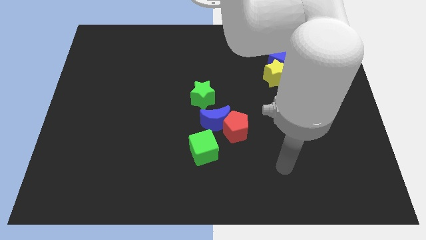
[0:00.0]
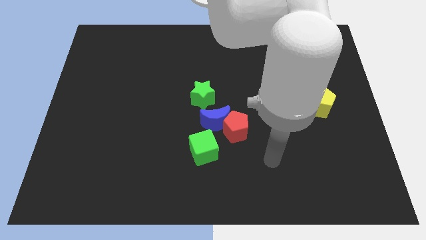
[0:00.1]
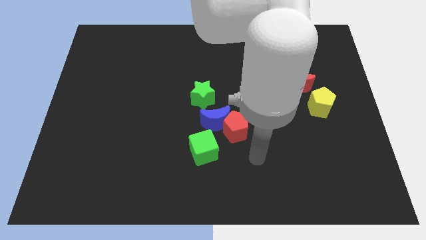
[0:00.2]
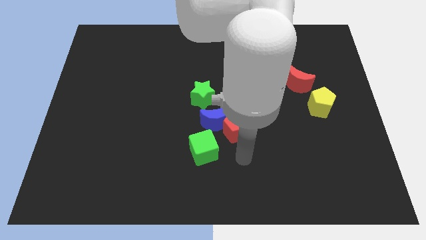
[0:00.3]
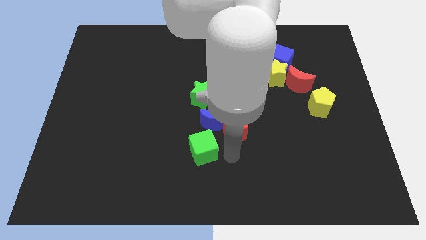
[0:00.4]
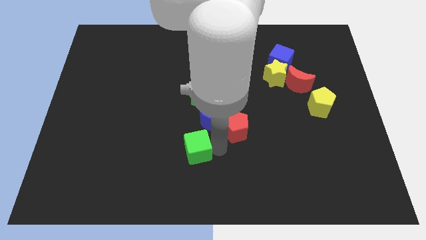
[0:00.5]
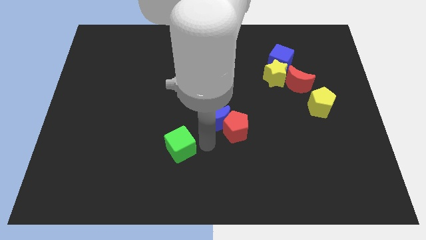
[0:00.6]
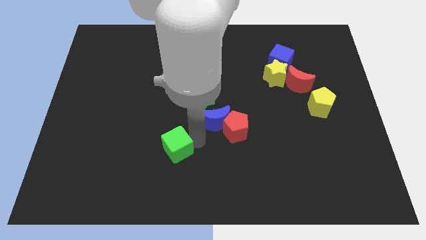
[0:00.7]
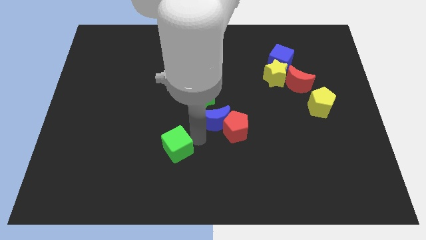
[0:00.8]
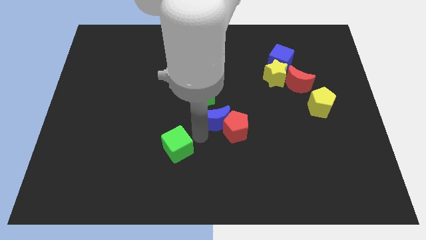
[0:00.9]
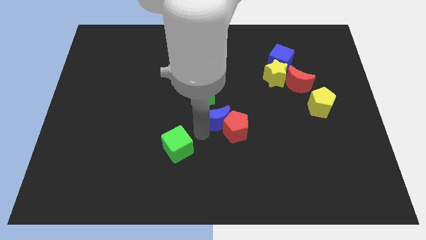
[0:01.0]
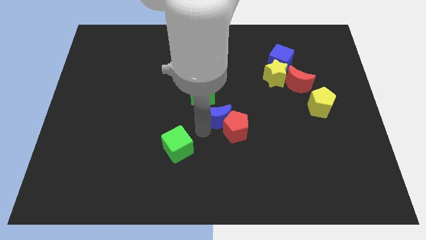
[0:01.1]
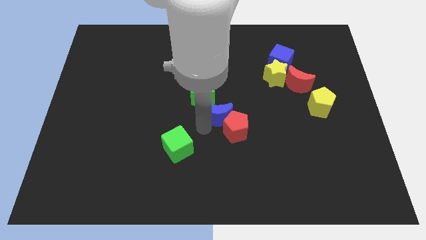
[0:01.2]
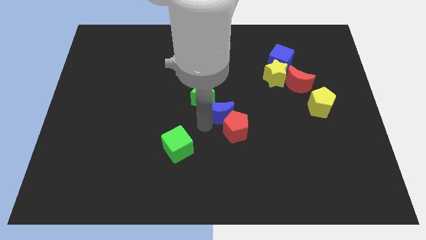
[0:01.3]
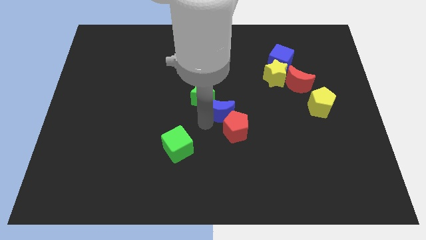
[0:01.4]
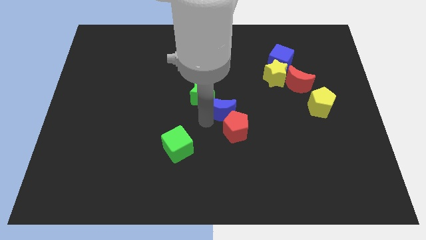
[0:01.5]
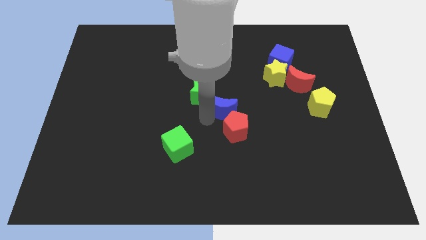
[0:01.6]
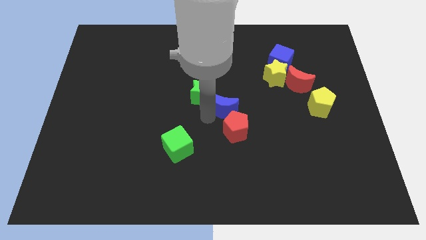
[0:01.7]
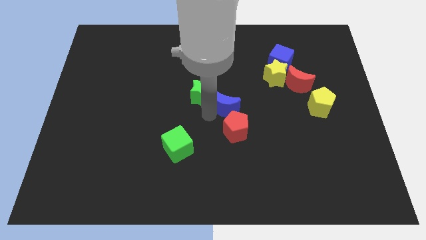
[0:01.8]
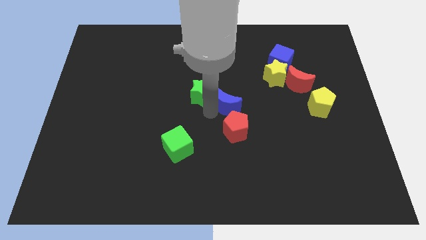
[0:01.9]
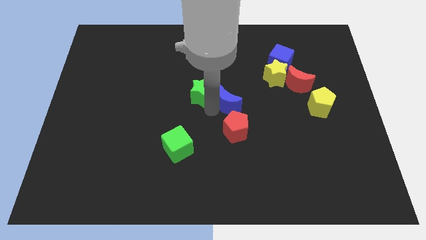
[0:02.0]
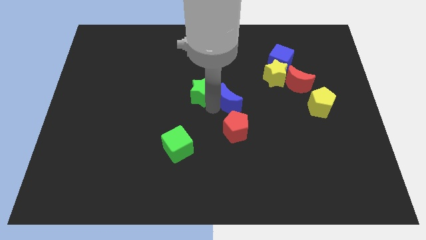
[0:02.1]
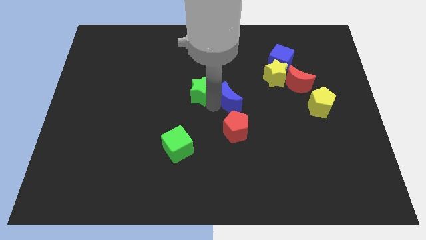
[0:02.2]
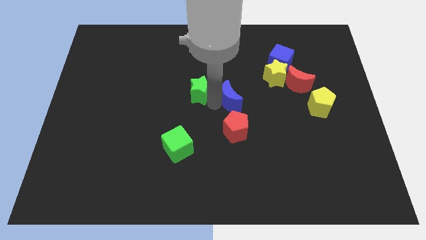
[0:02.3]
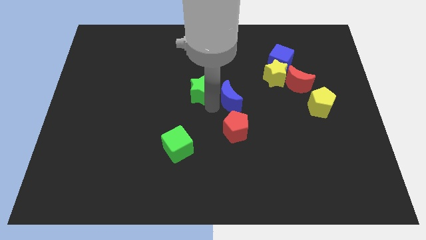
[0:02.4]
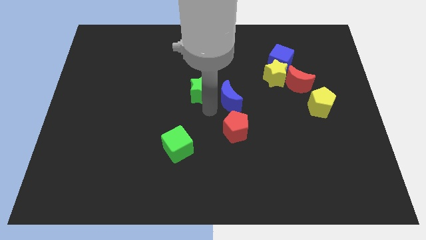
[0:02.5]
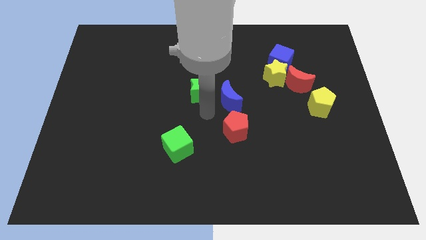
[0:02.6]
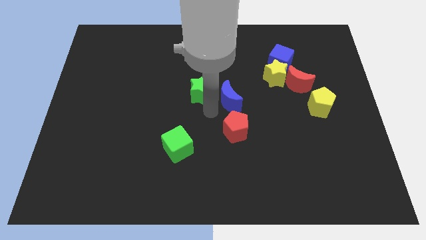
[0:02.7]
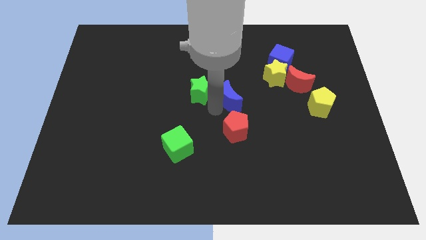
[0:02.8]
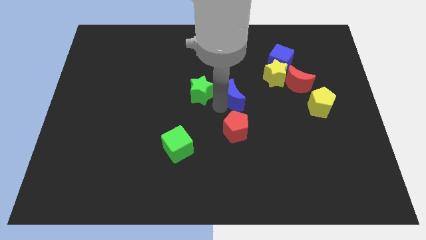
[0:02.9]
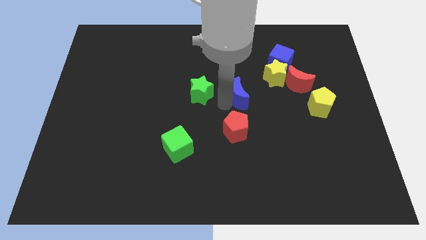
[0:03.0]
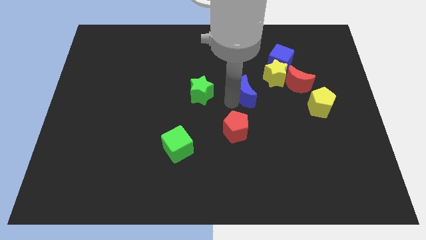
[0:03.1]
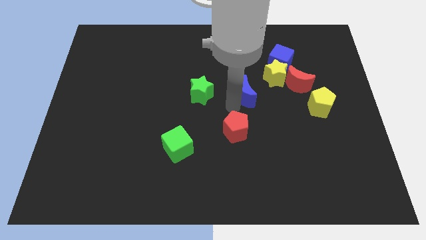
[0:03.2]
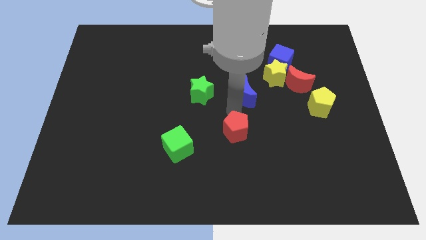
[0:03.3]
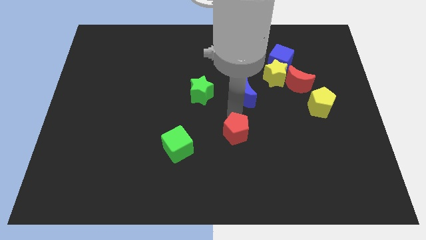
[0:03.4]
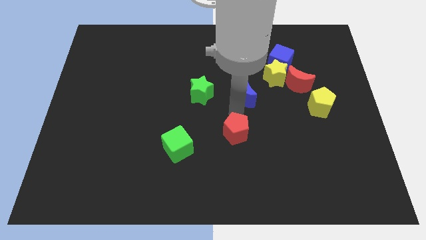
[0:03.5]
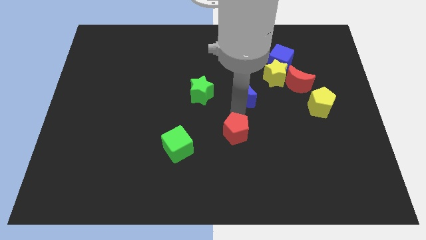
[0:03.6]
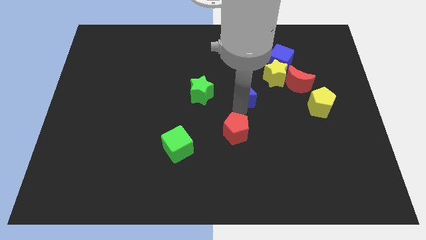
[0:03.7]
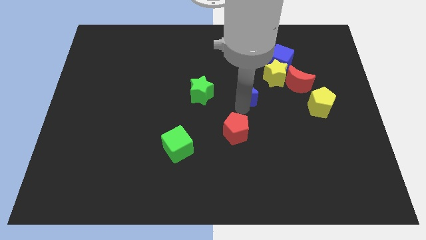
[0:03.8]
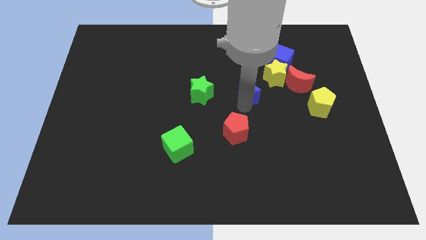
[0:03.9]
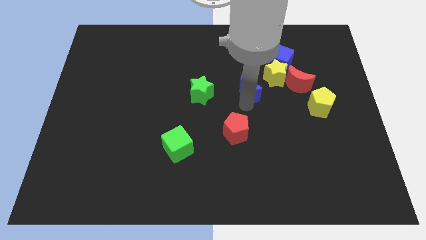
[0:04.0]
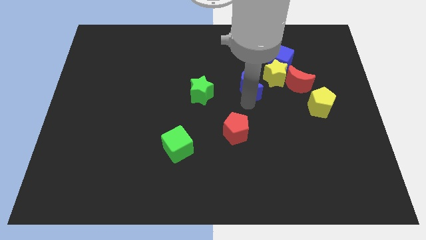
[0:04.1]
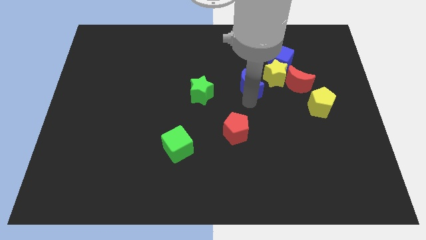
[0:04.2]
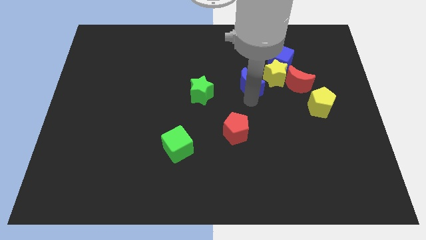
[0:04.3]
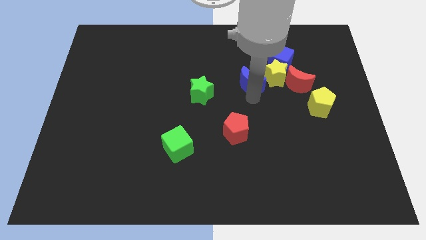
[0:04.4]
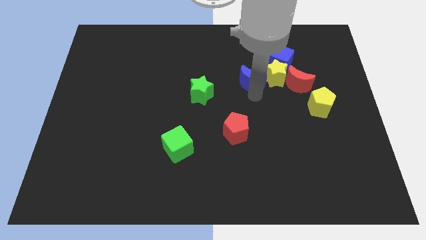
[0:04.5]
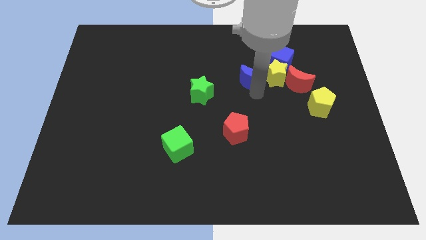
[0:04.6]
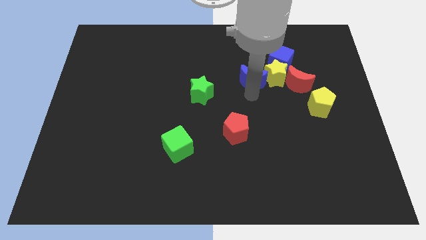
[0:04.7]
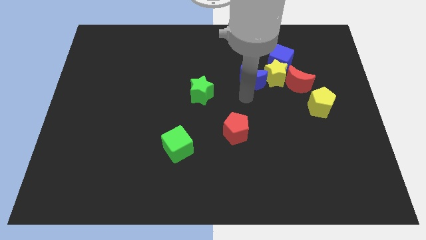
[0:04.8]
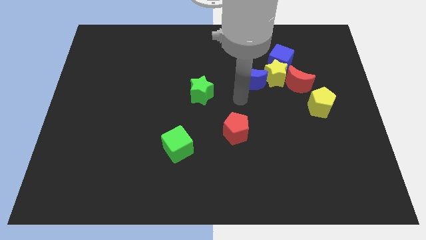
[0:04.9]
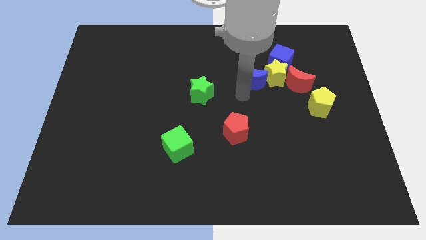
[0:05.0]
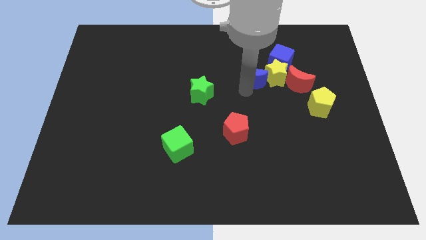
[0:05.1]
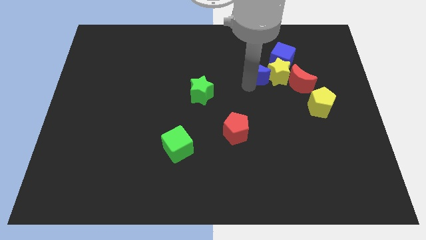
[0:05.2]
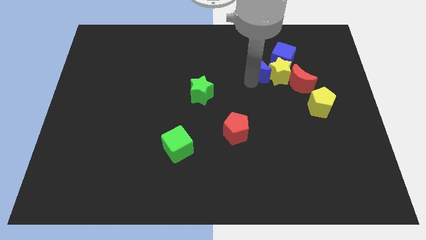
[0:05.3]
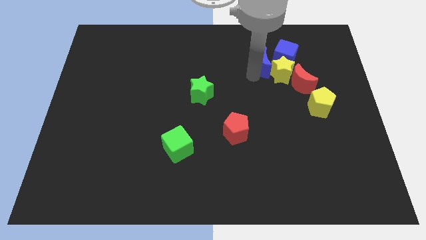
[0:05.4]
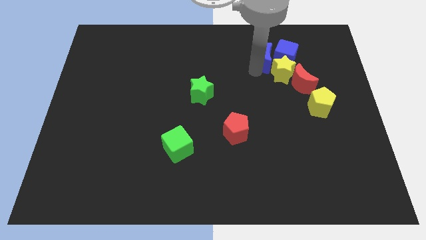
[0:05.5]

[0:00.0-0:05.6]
move the blue moon next to the blue cube

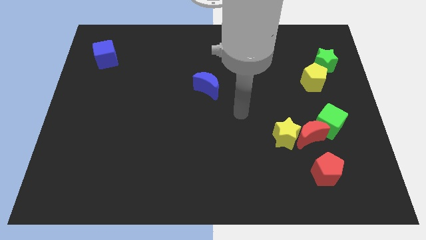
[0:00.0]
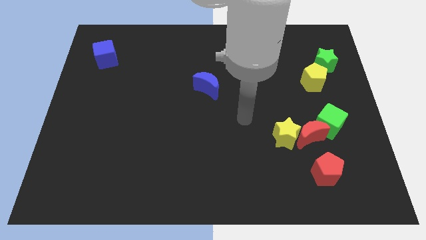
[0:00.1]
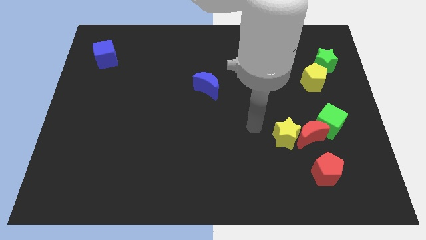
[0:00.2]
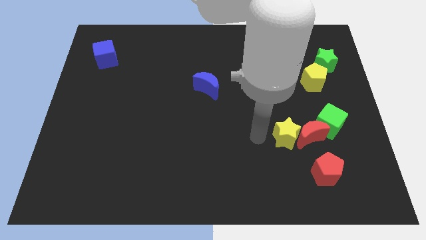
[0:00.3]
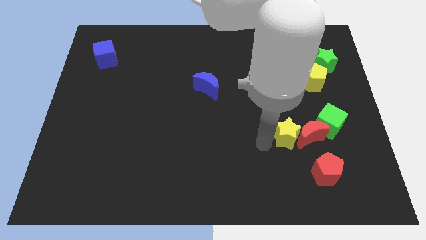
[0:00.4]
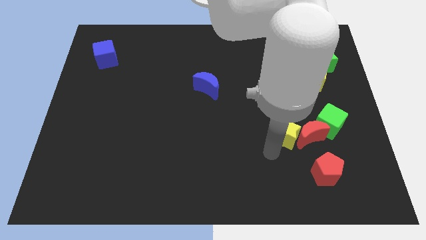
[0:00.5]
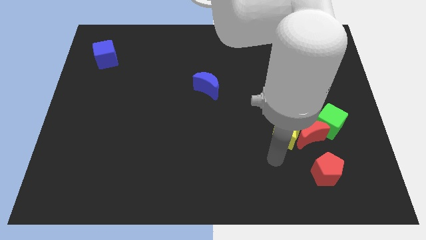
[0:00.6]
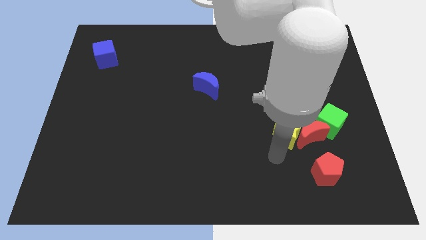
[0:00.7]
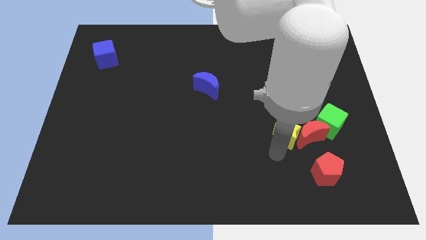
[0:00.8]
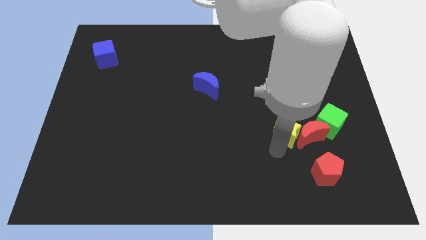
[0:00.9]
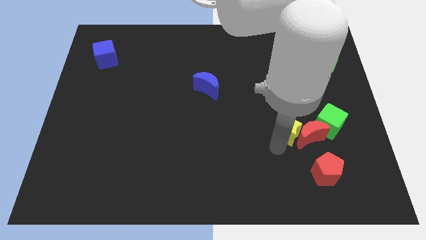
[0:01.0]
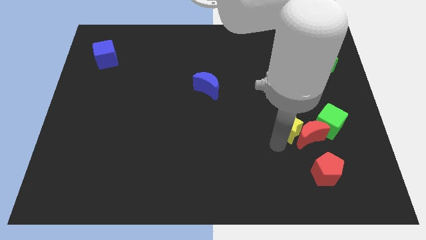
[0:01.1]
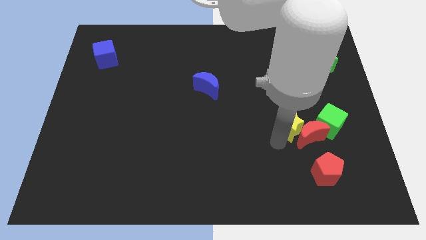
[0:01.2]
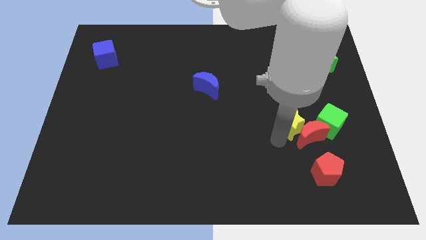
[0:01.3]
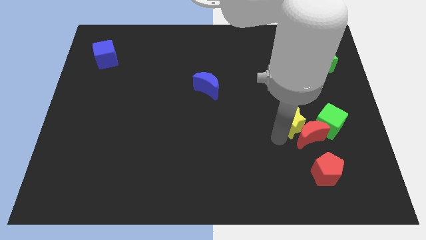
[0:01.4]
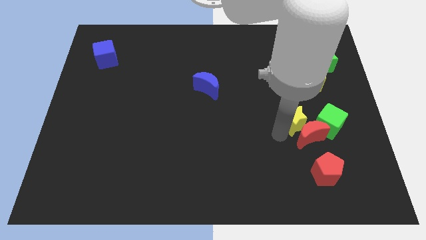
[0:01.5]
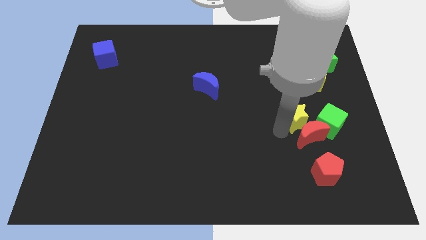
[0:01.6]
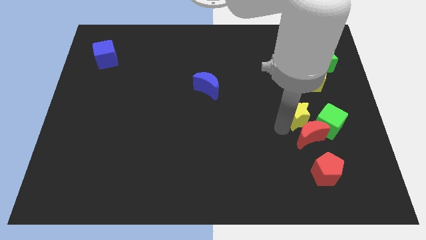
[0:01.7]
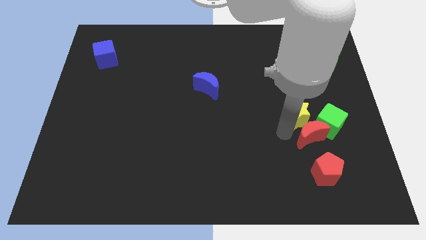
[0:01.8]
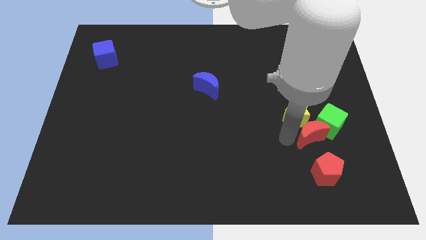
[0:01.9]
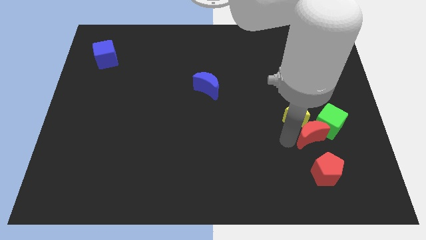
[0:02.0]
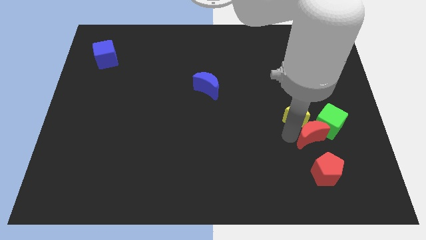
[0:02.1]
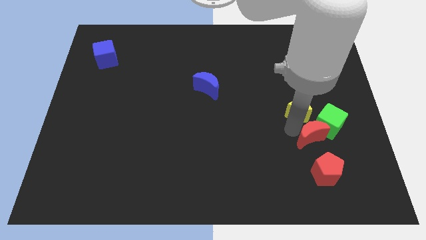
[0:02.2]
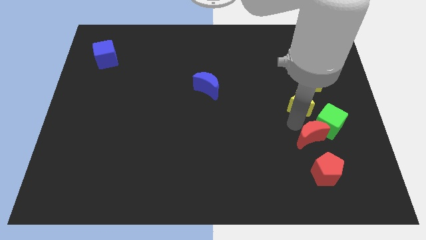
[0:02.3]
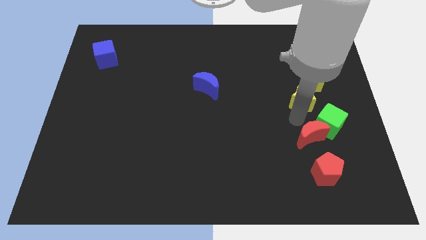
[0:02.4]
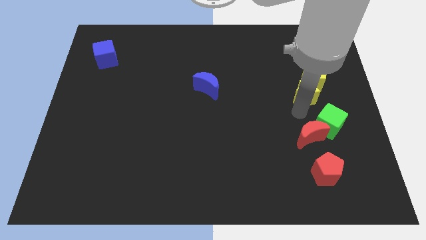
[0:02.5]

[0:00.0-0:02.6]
push the yellow star close to the yellow pentagon
